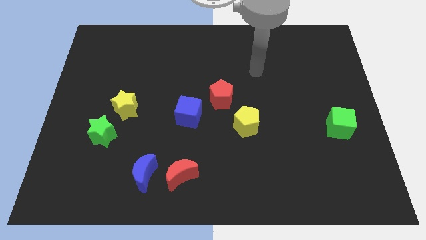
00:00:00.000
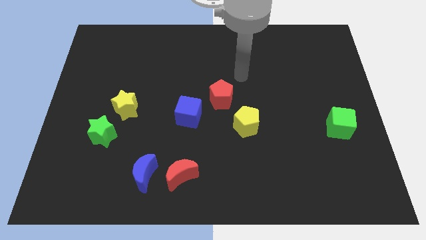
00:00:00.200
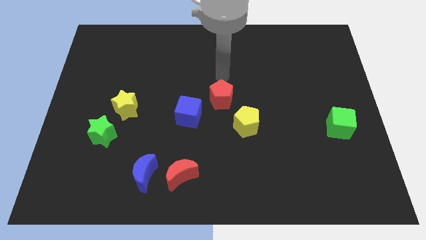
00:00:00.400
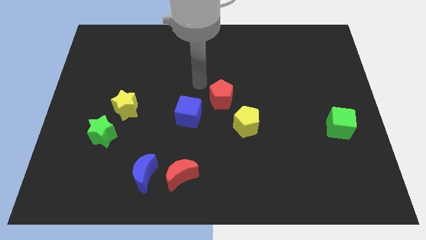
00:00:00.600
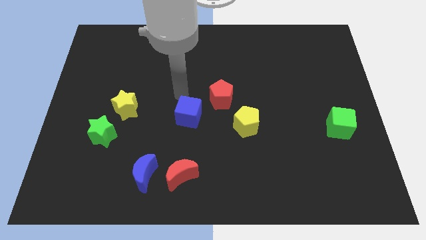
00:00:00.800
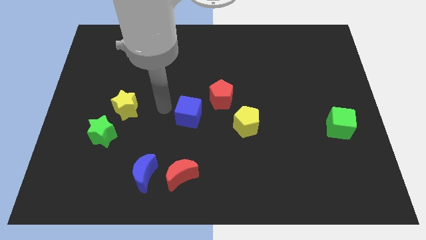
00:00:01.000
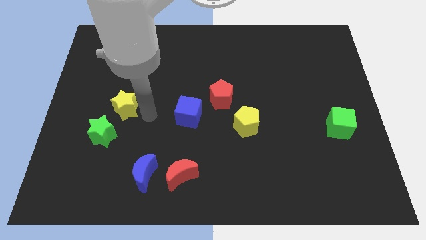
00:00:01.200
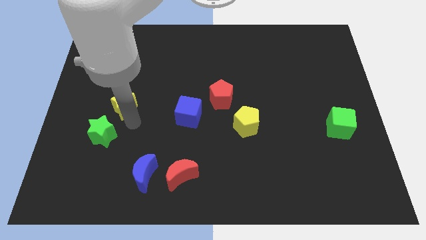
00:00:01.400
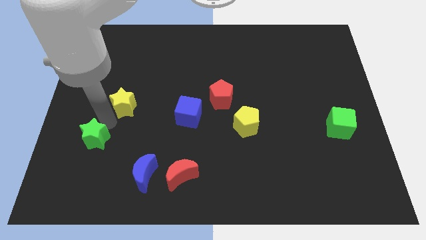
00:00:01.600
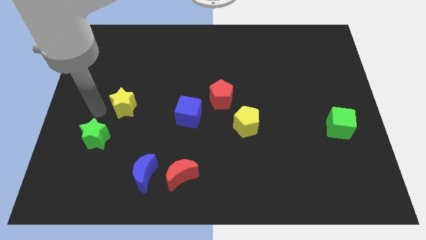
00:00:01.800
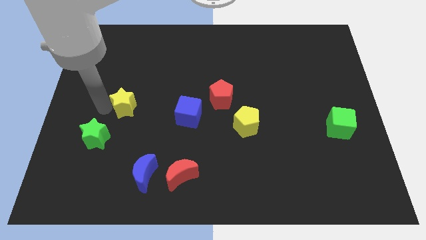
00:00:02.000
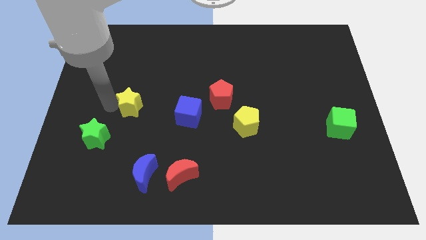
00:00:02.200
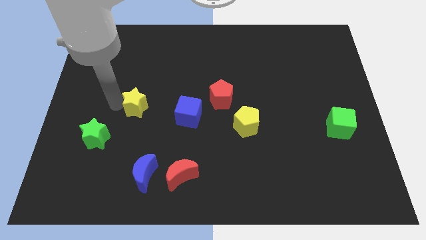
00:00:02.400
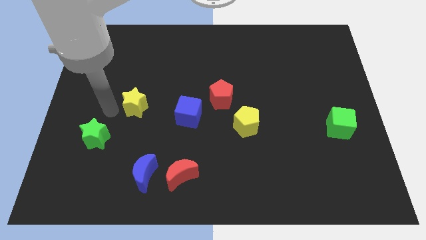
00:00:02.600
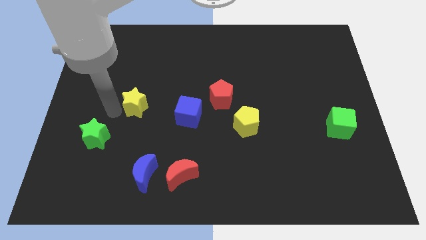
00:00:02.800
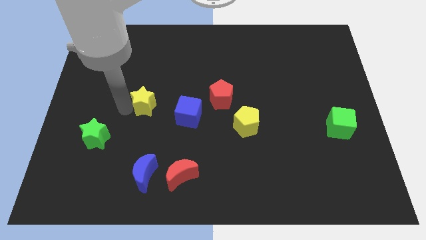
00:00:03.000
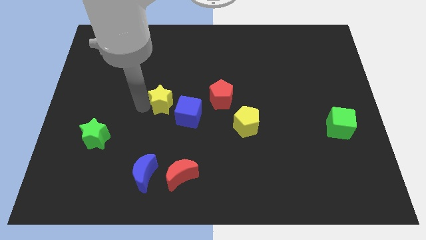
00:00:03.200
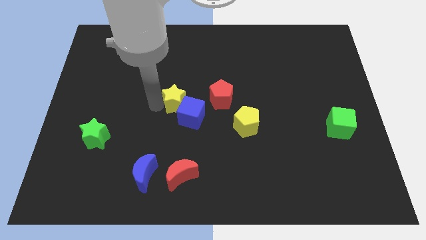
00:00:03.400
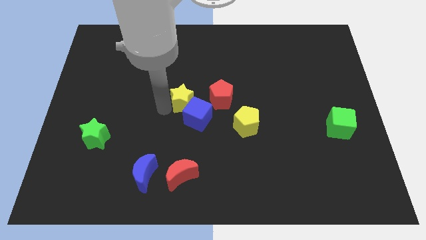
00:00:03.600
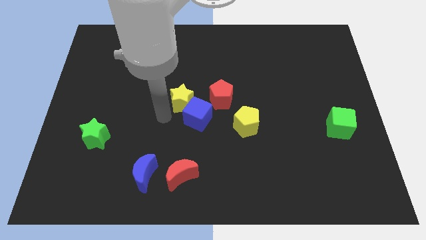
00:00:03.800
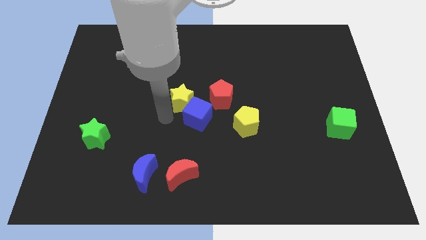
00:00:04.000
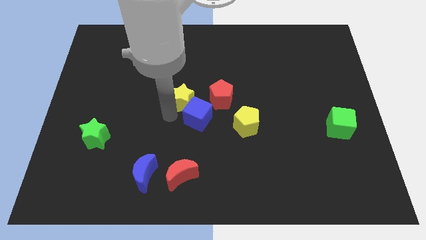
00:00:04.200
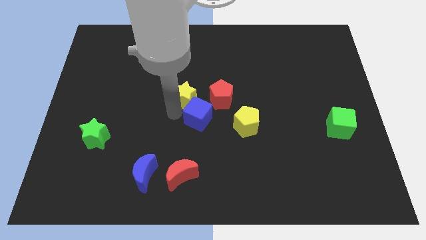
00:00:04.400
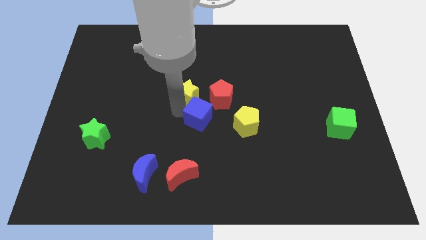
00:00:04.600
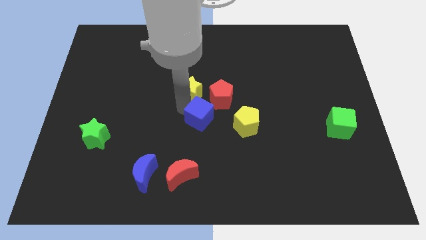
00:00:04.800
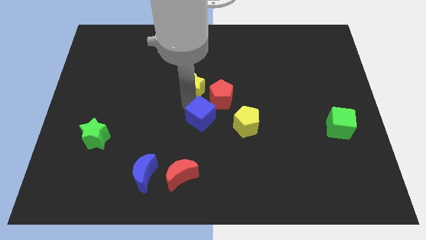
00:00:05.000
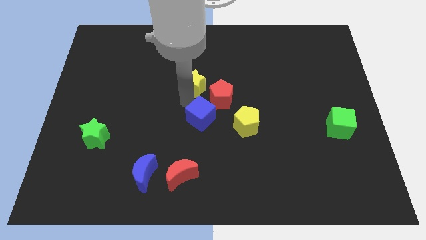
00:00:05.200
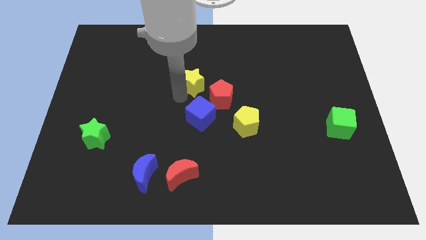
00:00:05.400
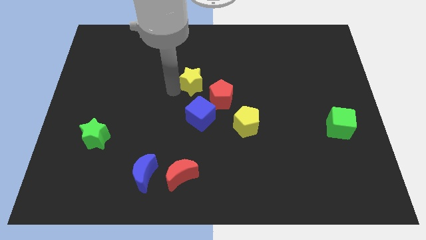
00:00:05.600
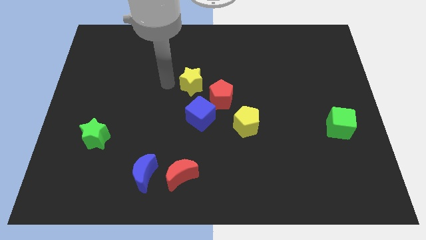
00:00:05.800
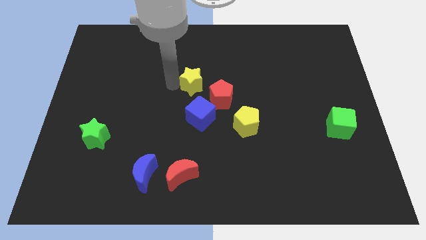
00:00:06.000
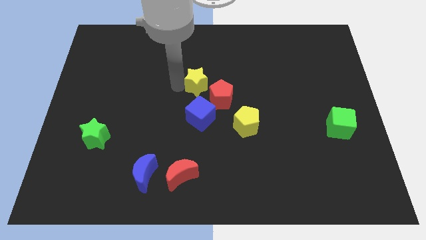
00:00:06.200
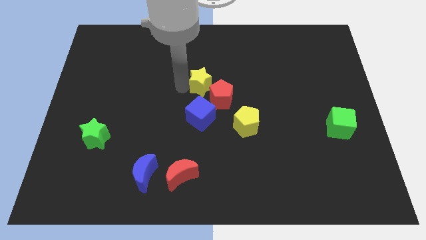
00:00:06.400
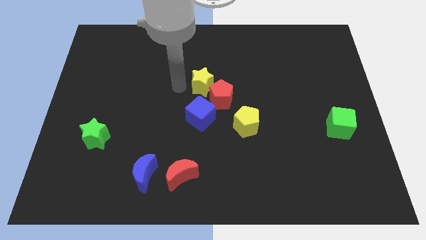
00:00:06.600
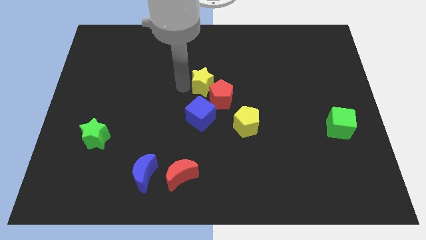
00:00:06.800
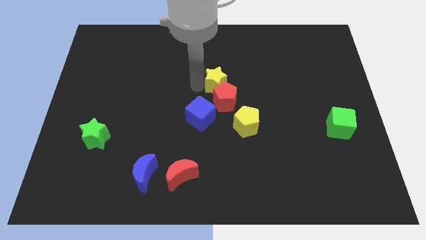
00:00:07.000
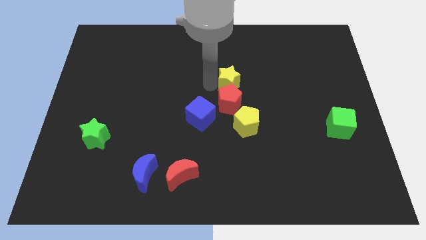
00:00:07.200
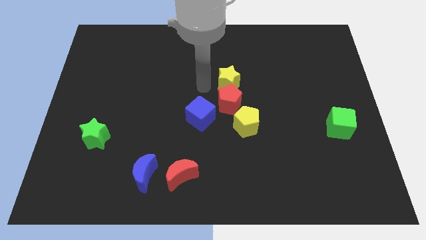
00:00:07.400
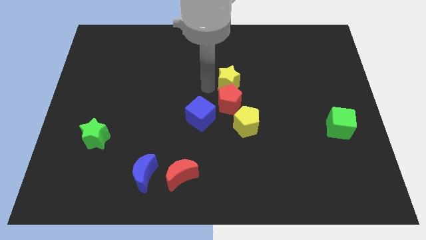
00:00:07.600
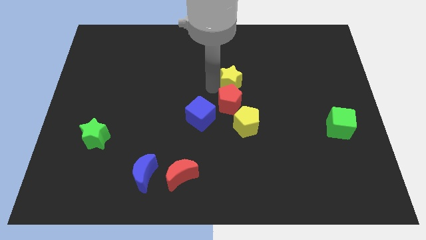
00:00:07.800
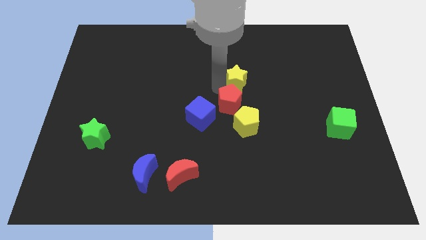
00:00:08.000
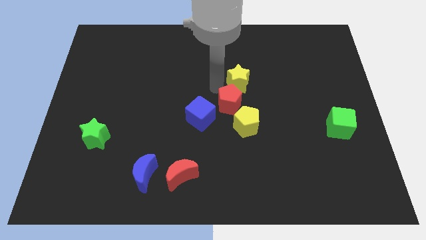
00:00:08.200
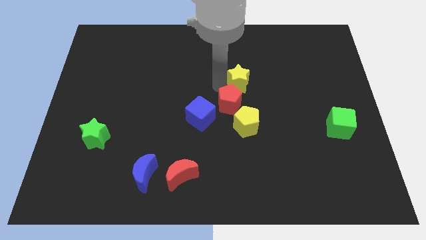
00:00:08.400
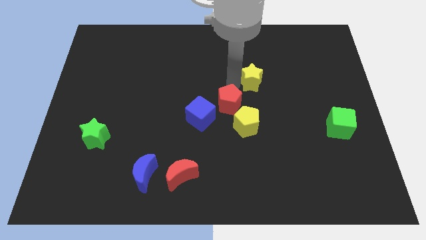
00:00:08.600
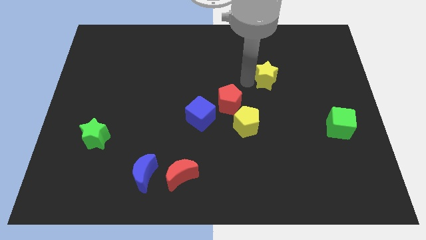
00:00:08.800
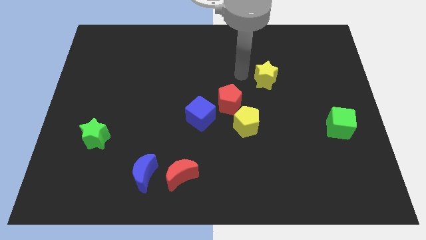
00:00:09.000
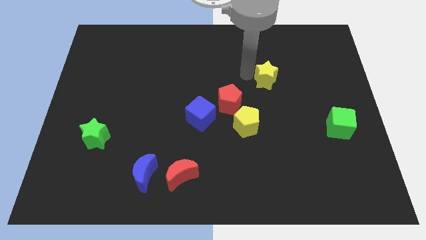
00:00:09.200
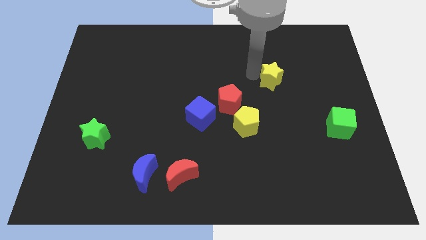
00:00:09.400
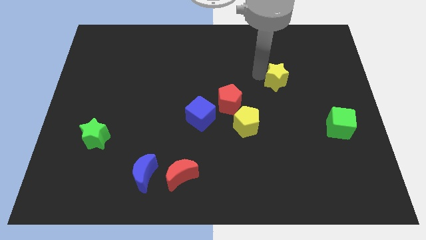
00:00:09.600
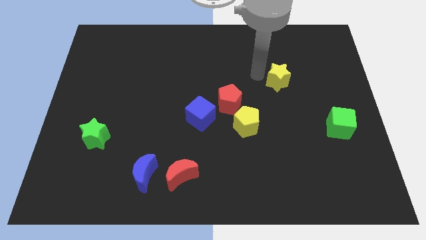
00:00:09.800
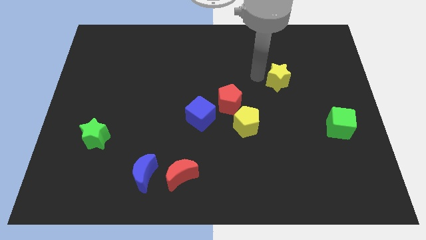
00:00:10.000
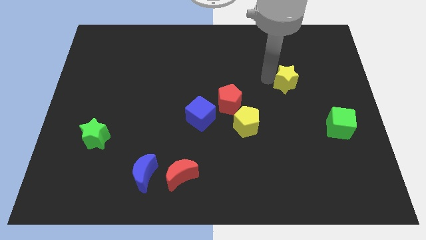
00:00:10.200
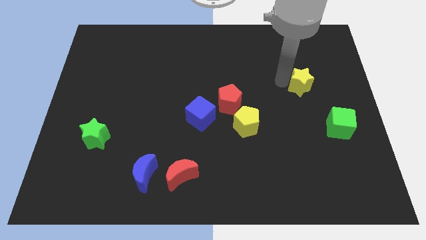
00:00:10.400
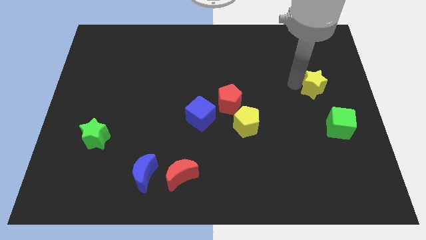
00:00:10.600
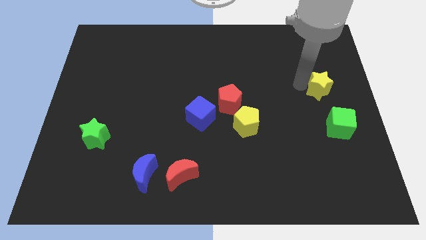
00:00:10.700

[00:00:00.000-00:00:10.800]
move the yellow star to the right side

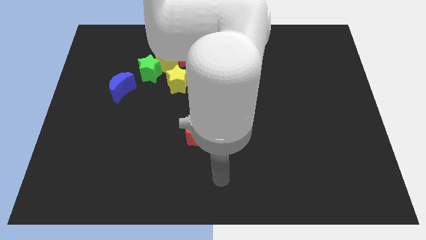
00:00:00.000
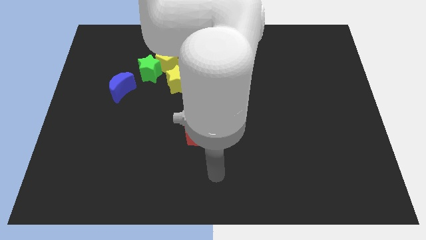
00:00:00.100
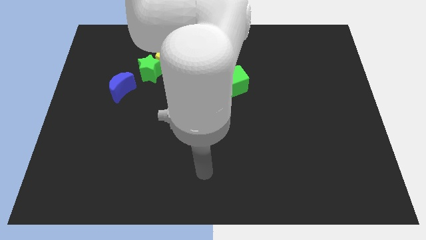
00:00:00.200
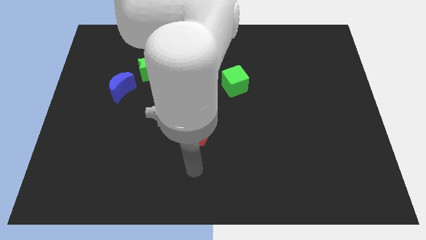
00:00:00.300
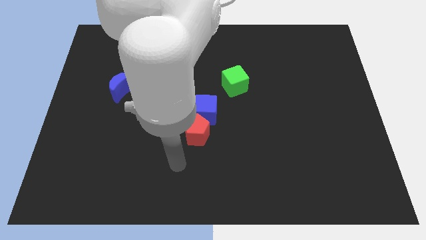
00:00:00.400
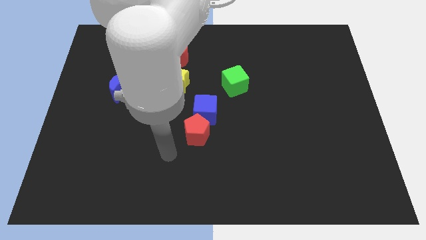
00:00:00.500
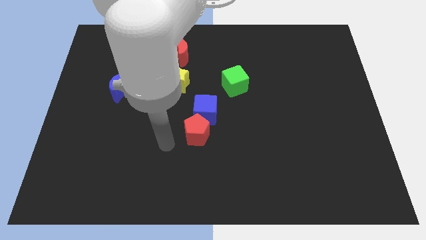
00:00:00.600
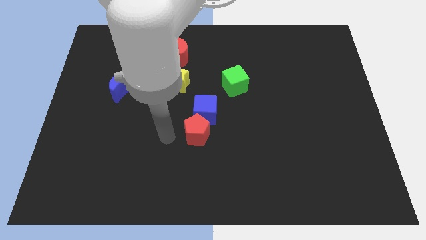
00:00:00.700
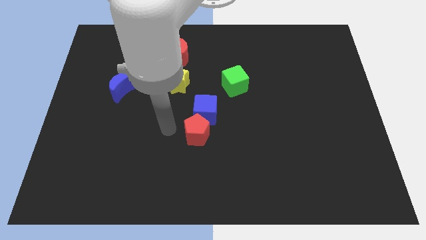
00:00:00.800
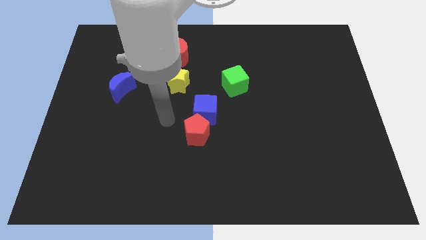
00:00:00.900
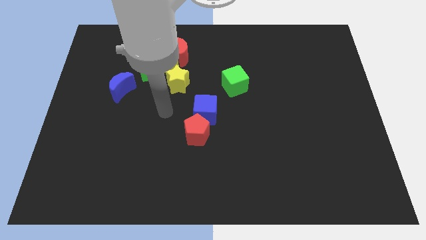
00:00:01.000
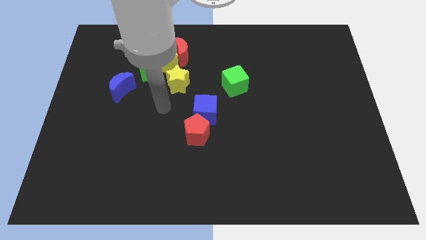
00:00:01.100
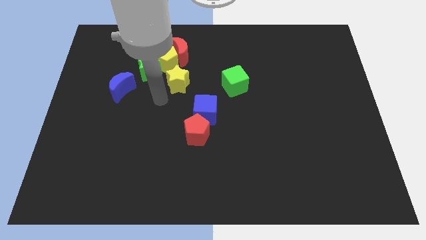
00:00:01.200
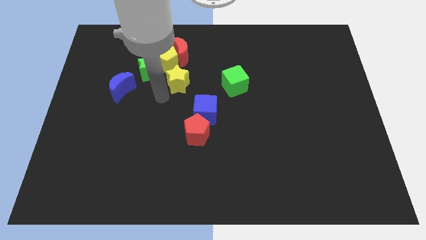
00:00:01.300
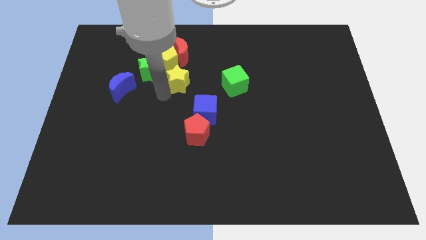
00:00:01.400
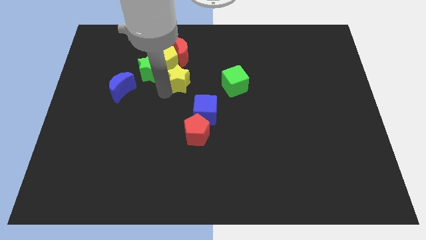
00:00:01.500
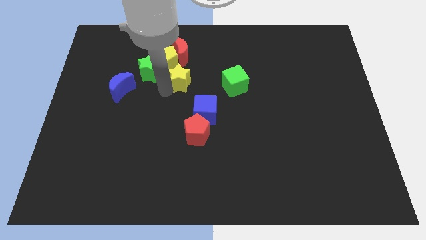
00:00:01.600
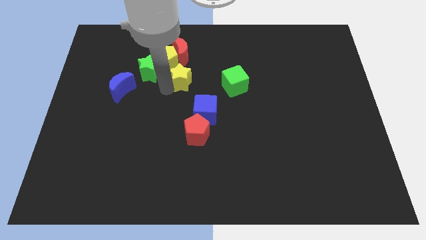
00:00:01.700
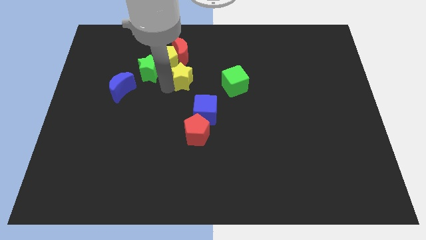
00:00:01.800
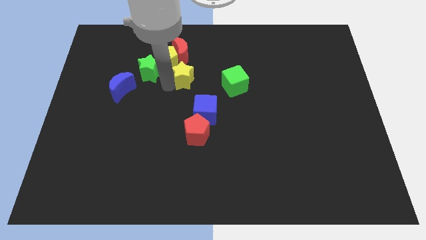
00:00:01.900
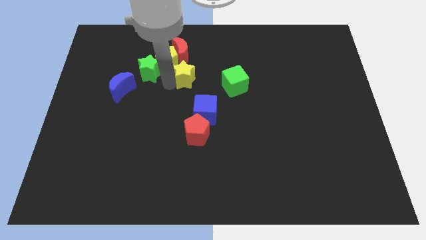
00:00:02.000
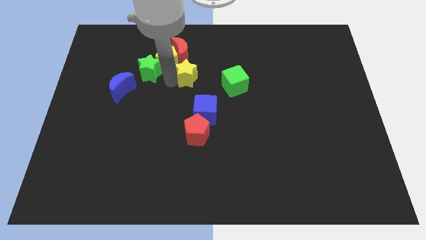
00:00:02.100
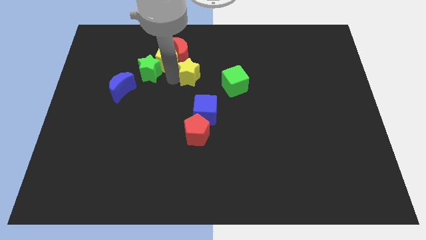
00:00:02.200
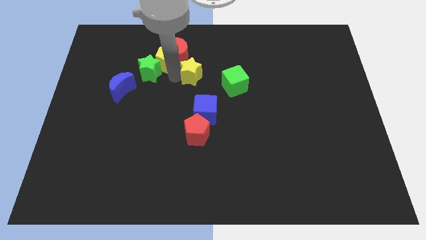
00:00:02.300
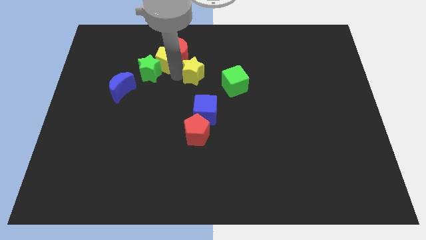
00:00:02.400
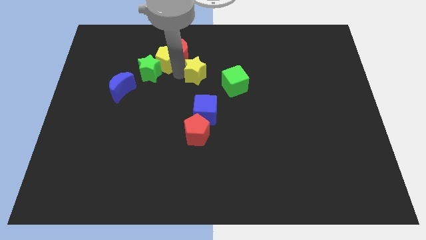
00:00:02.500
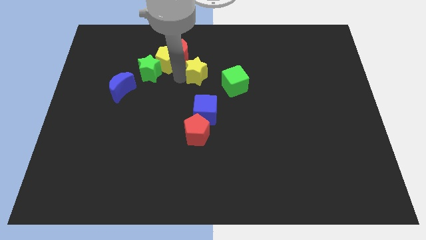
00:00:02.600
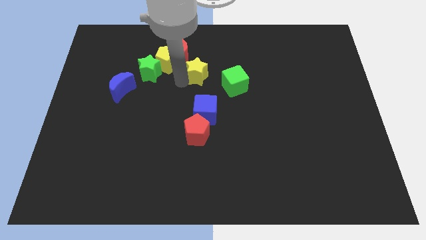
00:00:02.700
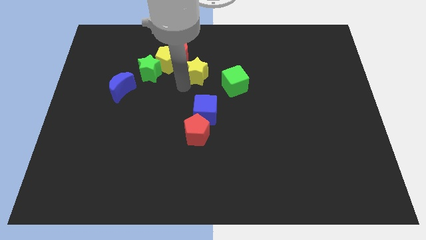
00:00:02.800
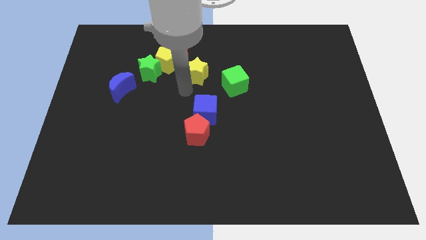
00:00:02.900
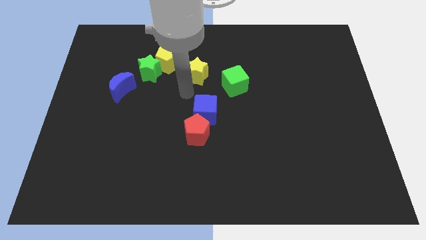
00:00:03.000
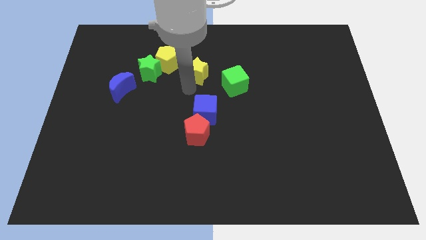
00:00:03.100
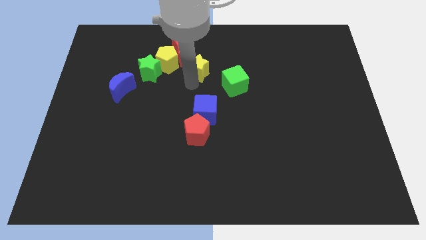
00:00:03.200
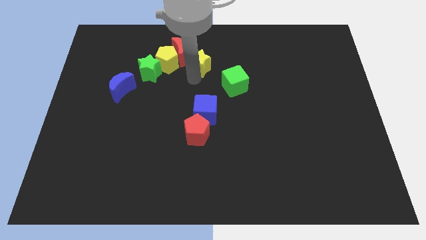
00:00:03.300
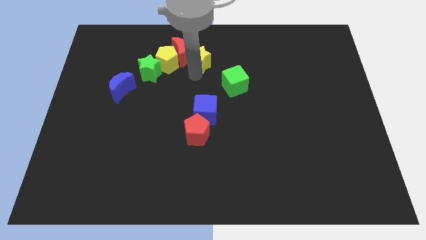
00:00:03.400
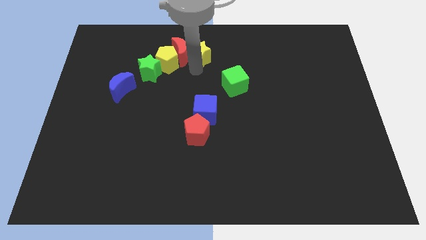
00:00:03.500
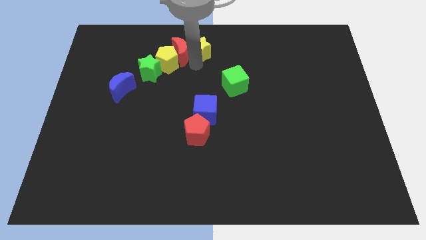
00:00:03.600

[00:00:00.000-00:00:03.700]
slide the yellow star to the top side
